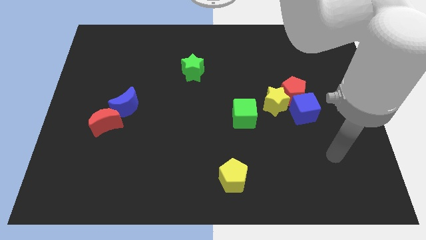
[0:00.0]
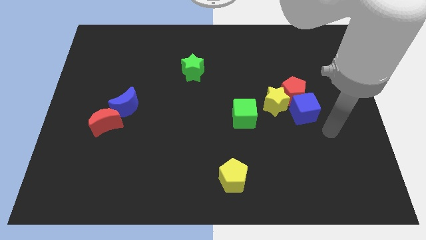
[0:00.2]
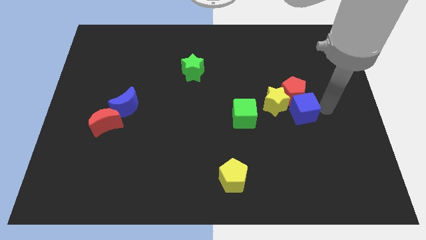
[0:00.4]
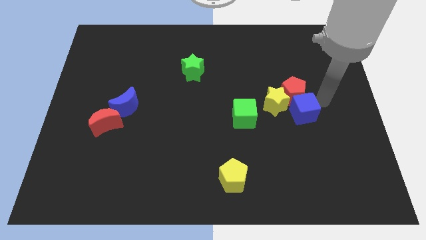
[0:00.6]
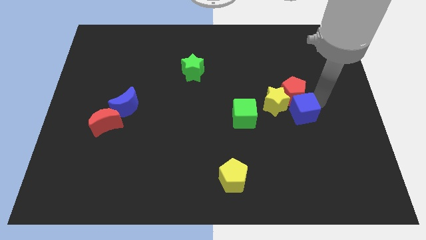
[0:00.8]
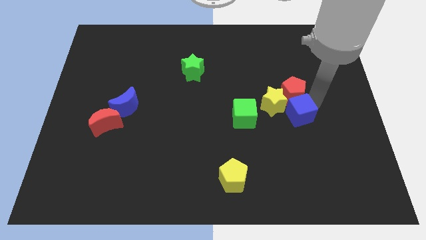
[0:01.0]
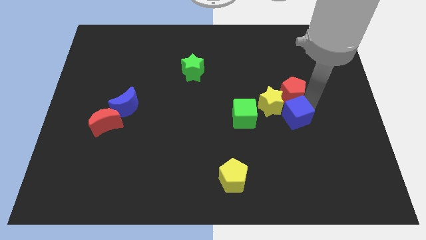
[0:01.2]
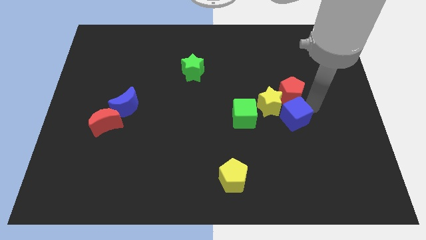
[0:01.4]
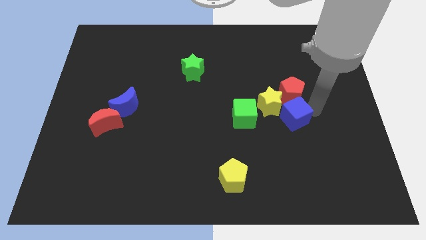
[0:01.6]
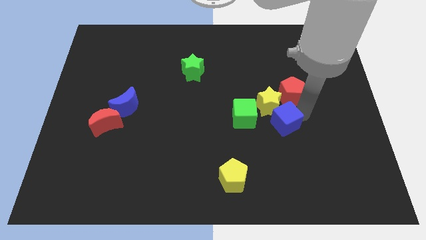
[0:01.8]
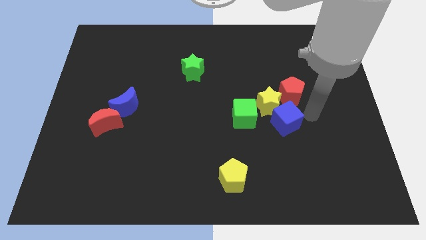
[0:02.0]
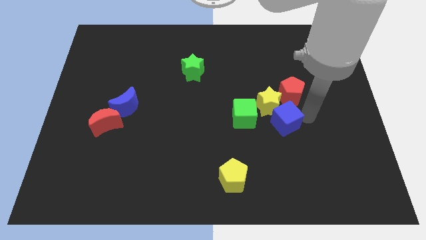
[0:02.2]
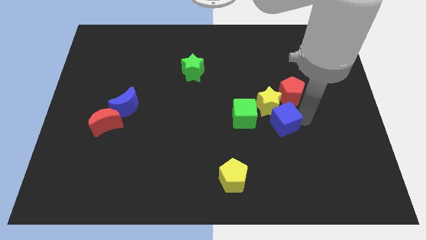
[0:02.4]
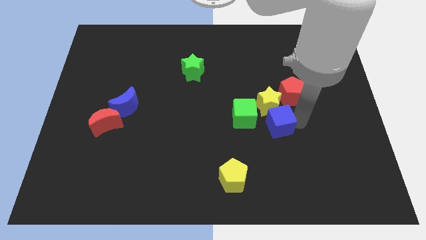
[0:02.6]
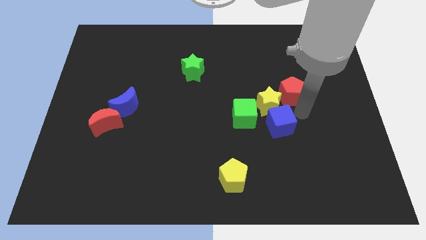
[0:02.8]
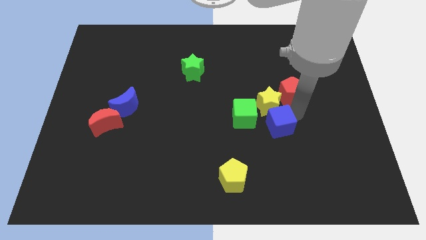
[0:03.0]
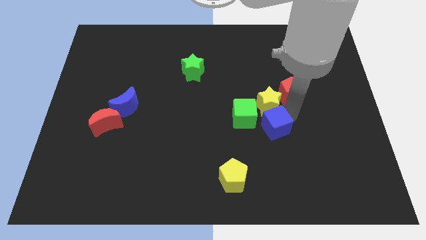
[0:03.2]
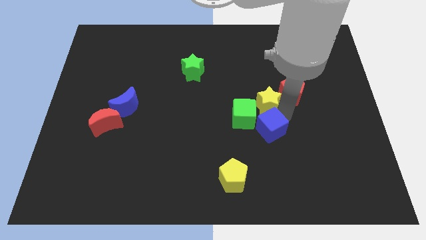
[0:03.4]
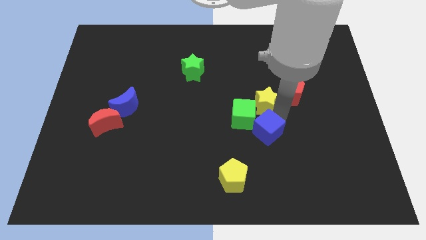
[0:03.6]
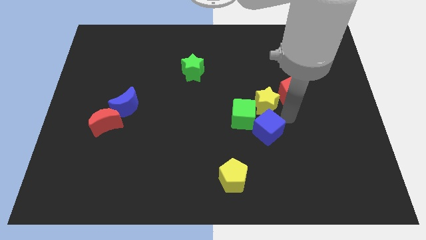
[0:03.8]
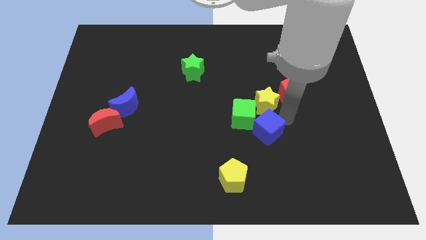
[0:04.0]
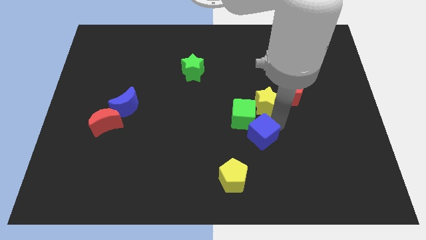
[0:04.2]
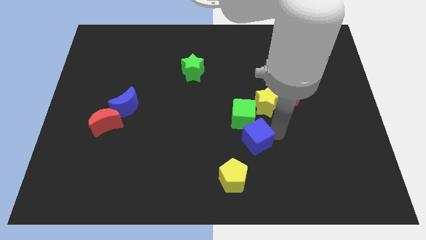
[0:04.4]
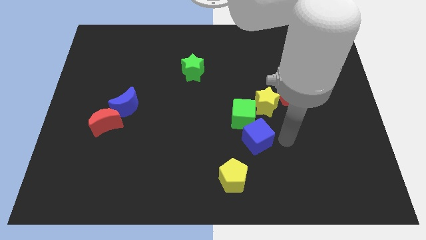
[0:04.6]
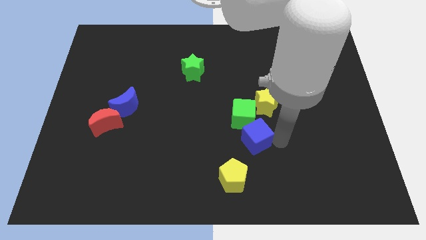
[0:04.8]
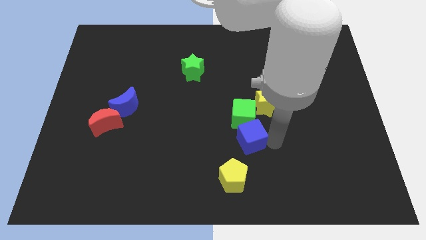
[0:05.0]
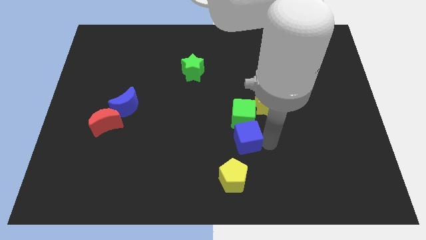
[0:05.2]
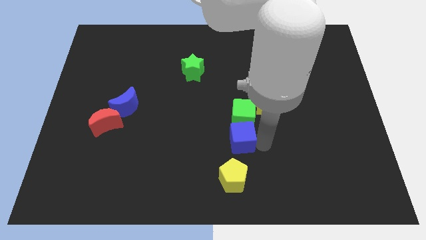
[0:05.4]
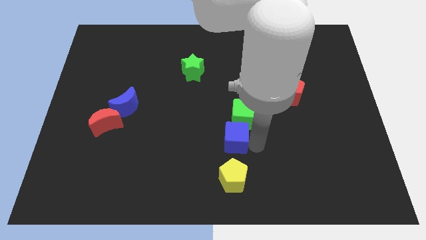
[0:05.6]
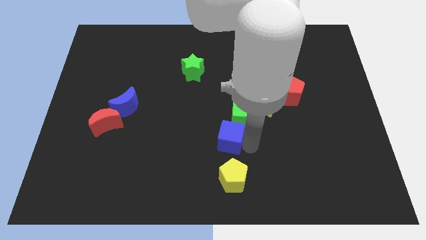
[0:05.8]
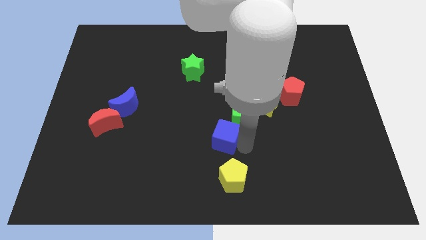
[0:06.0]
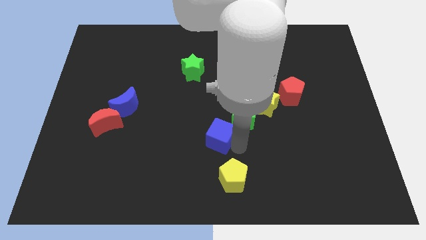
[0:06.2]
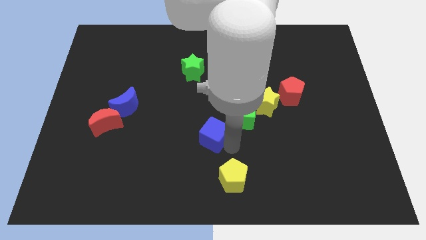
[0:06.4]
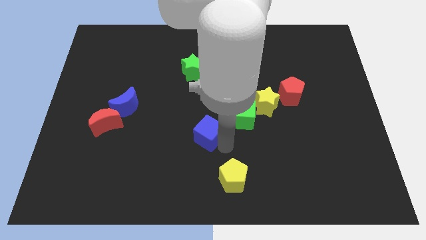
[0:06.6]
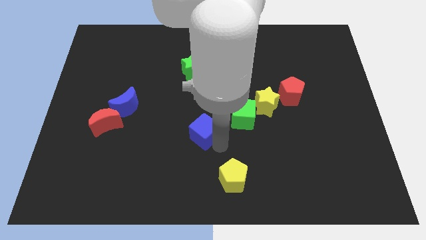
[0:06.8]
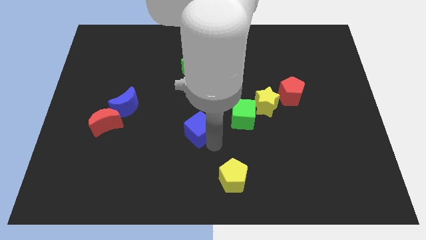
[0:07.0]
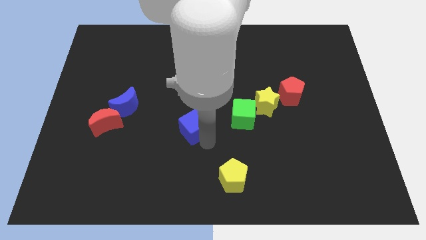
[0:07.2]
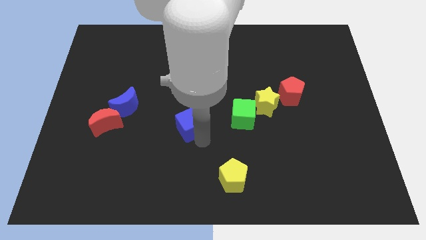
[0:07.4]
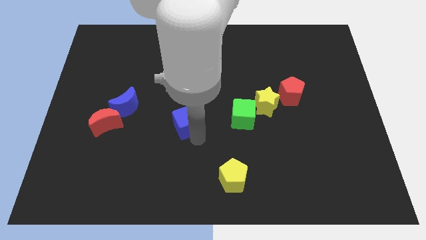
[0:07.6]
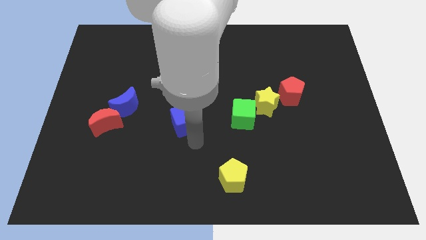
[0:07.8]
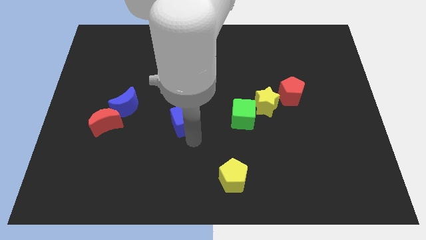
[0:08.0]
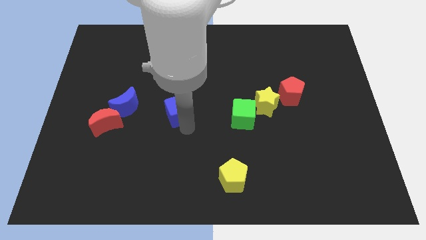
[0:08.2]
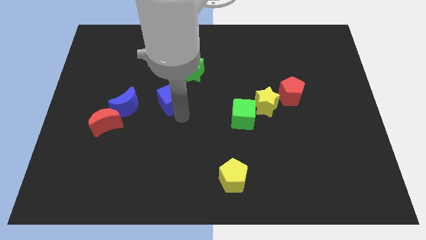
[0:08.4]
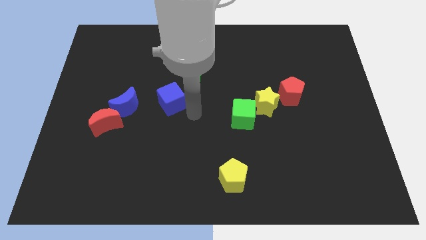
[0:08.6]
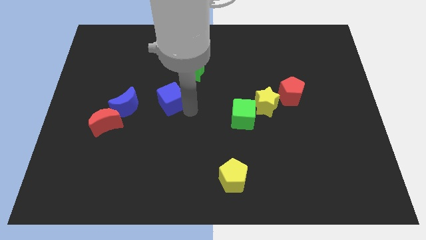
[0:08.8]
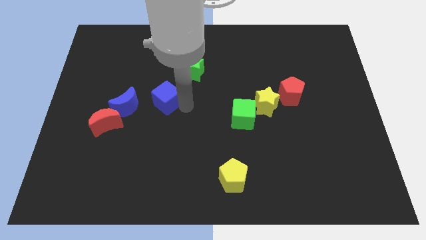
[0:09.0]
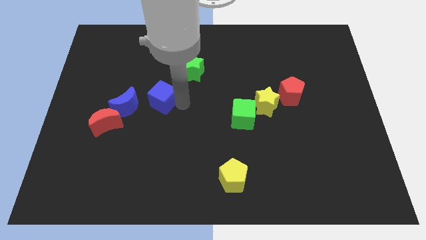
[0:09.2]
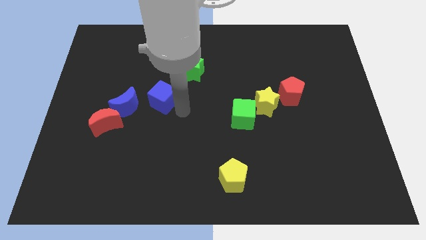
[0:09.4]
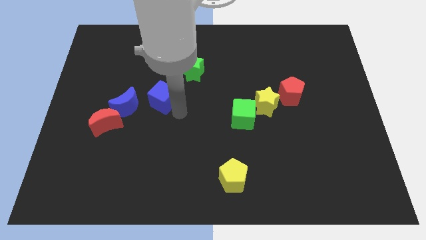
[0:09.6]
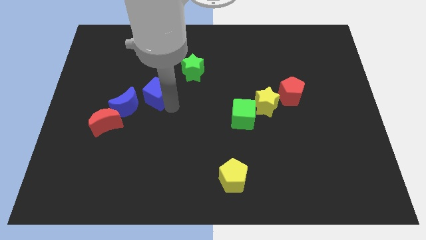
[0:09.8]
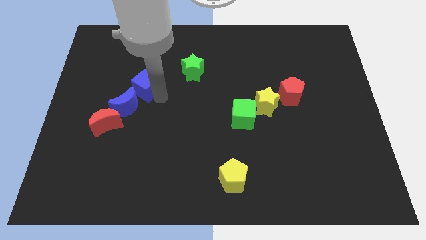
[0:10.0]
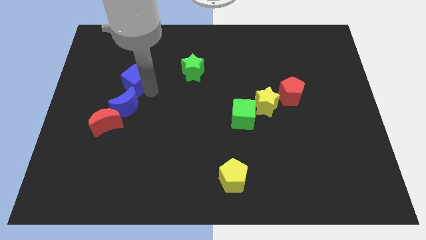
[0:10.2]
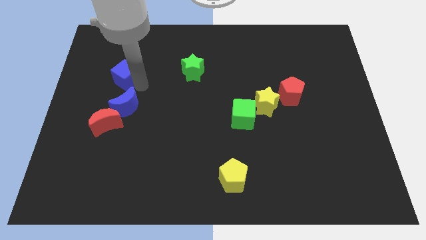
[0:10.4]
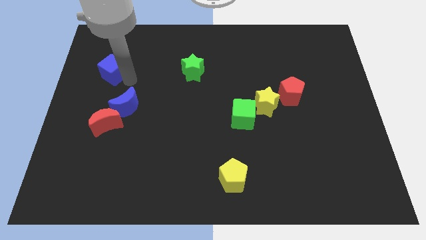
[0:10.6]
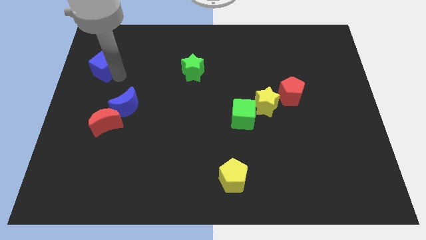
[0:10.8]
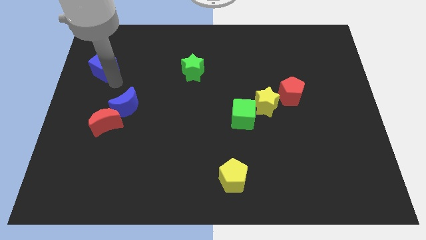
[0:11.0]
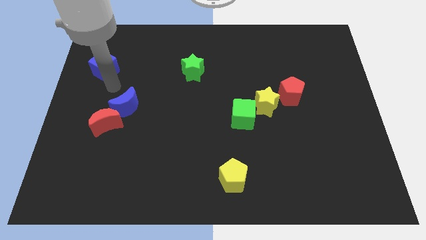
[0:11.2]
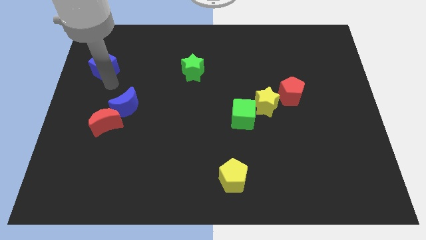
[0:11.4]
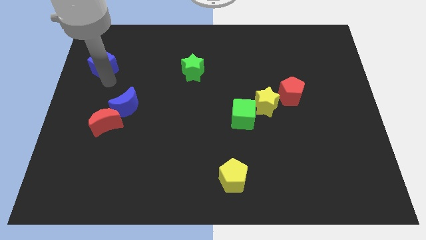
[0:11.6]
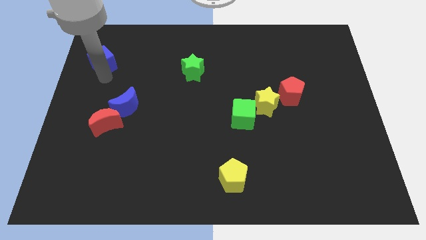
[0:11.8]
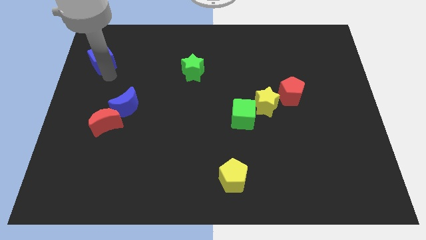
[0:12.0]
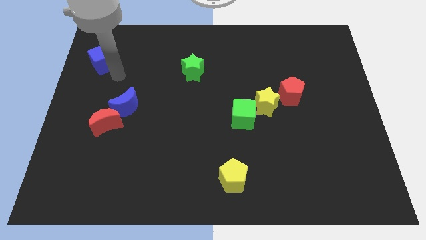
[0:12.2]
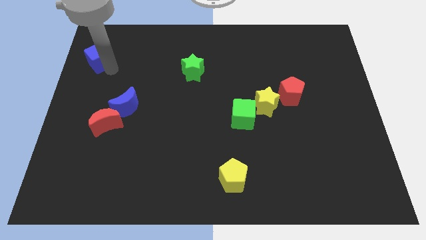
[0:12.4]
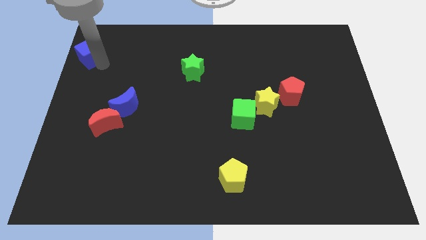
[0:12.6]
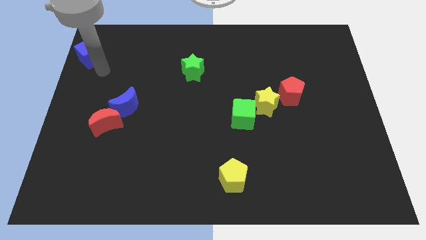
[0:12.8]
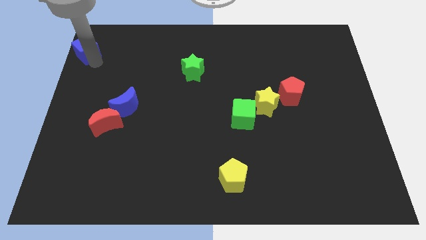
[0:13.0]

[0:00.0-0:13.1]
push the blue cube to the upper left corner

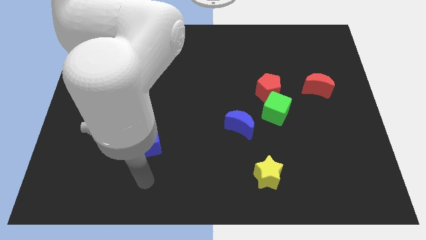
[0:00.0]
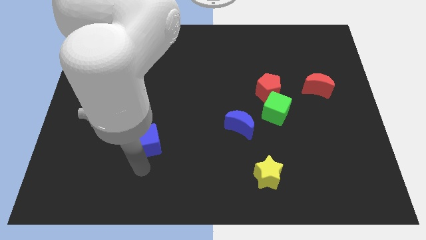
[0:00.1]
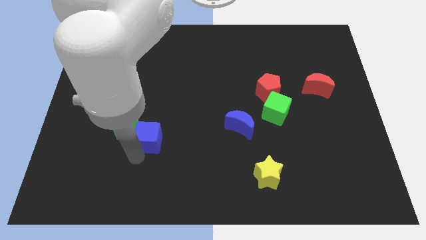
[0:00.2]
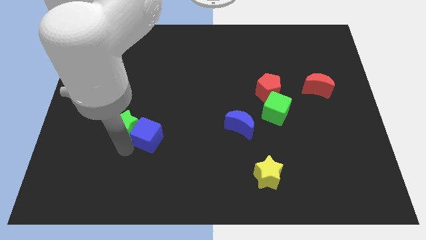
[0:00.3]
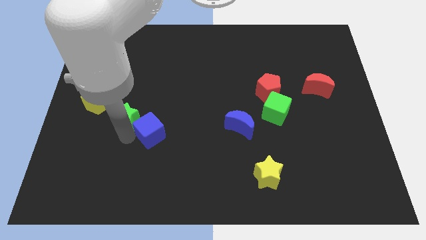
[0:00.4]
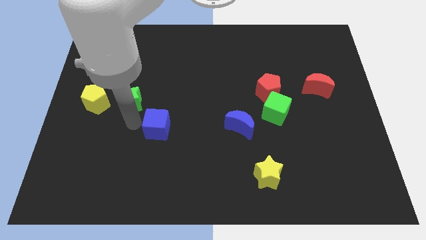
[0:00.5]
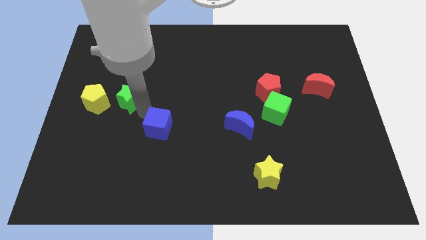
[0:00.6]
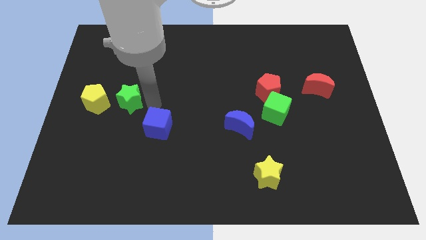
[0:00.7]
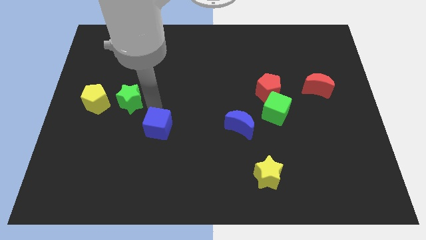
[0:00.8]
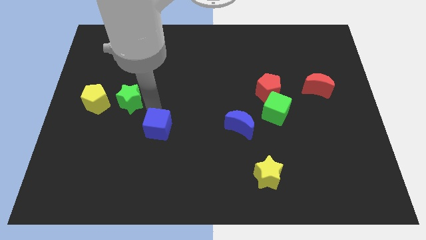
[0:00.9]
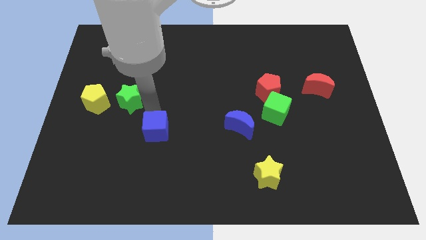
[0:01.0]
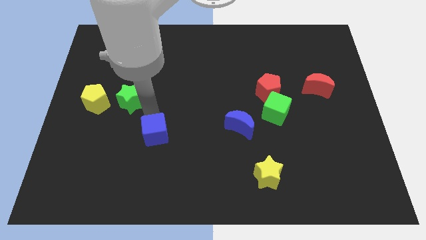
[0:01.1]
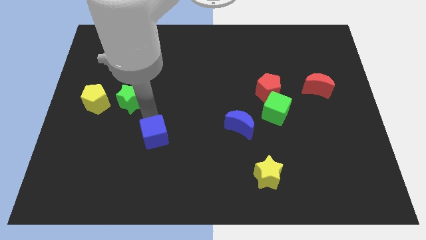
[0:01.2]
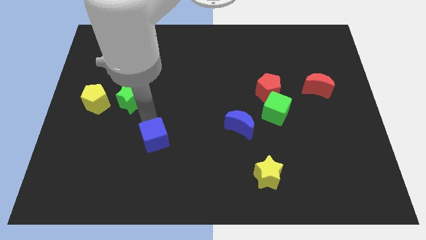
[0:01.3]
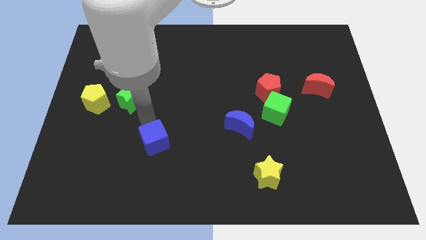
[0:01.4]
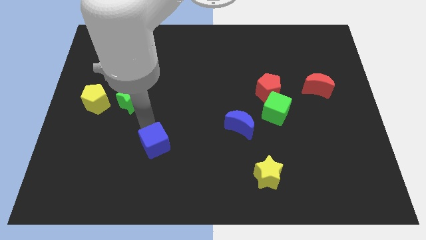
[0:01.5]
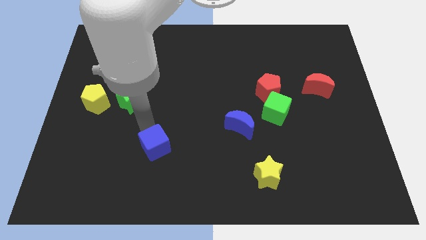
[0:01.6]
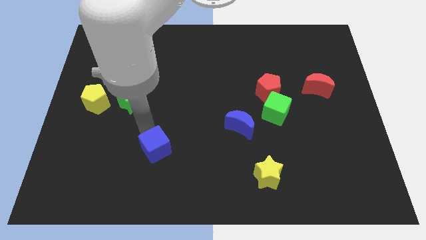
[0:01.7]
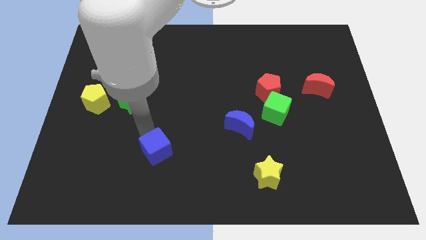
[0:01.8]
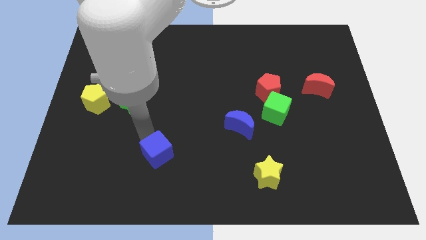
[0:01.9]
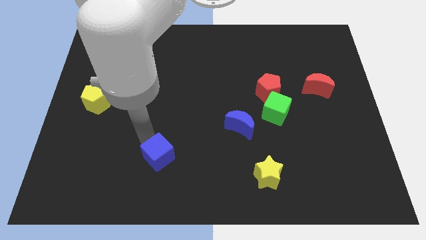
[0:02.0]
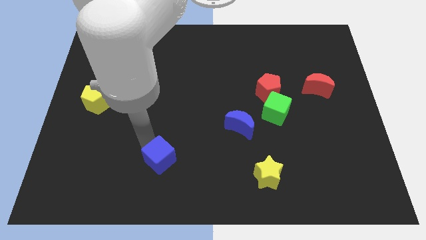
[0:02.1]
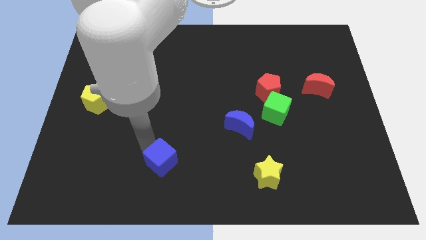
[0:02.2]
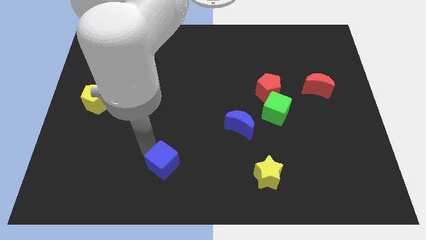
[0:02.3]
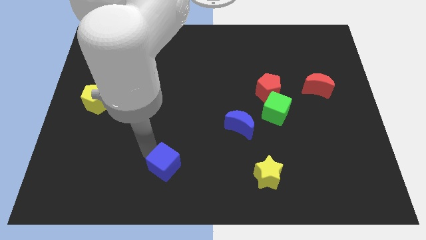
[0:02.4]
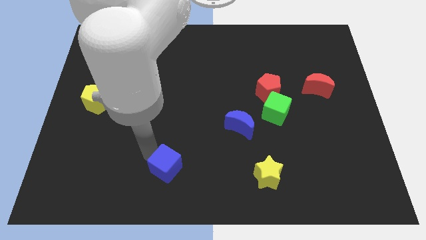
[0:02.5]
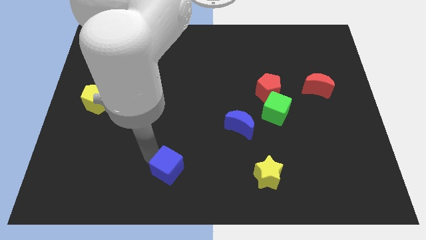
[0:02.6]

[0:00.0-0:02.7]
put the blue cube to the bottom
